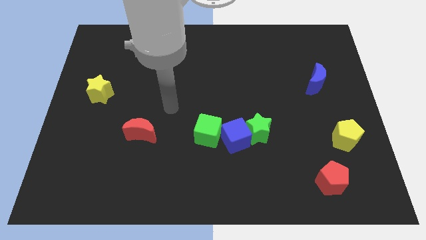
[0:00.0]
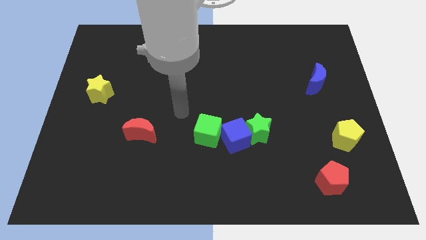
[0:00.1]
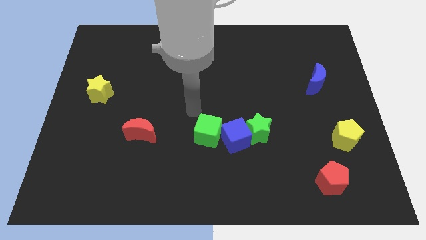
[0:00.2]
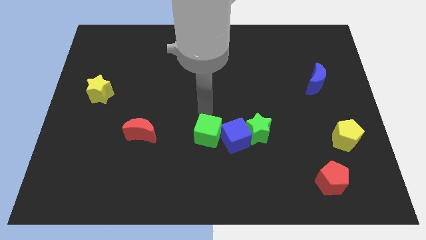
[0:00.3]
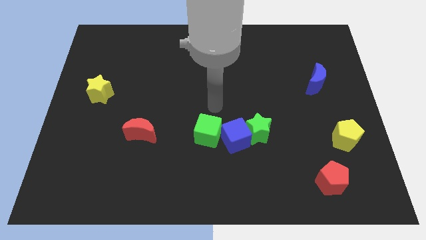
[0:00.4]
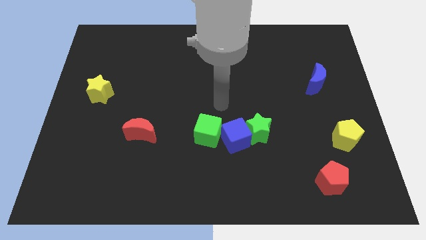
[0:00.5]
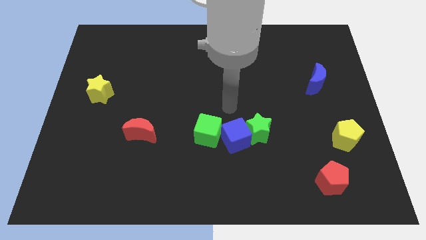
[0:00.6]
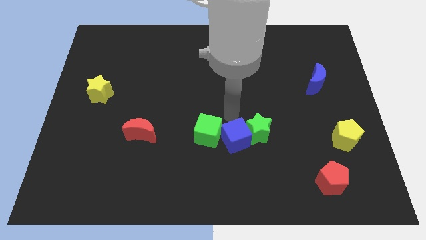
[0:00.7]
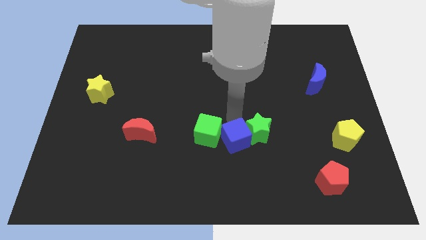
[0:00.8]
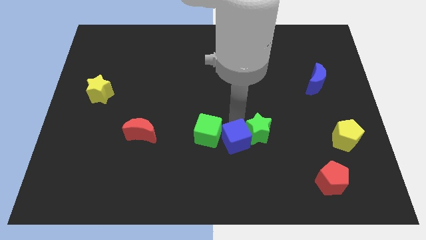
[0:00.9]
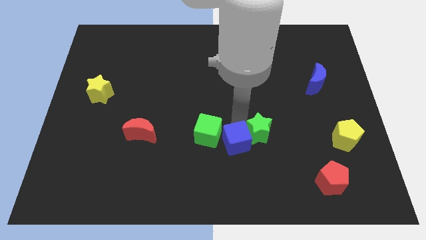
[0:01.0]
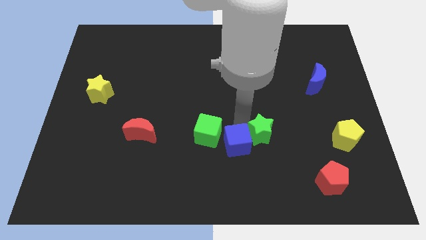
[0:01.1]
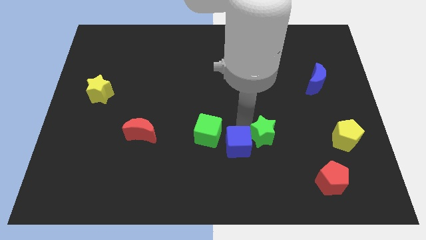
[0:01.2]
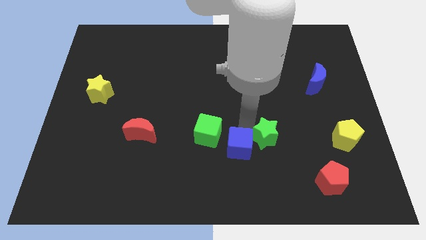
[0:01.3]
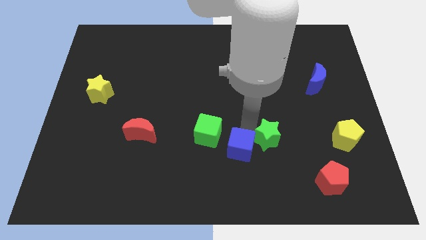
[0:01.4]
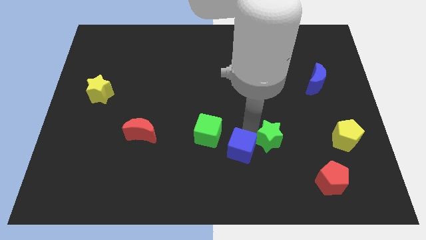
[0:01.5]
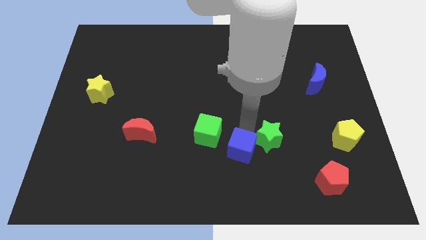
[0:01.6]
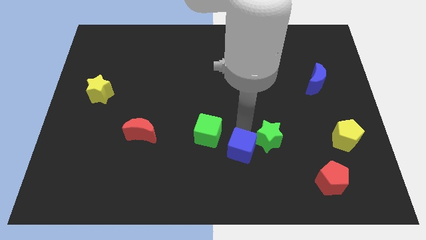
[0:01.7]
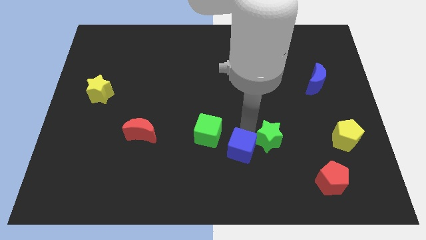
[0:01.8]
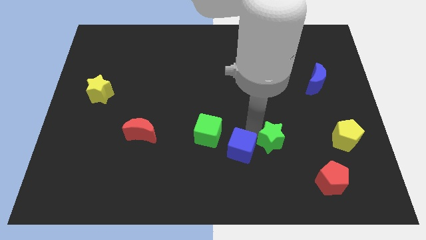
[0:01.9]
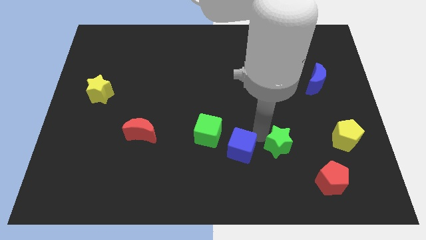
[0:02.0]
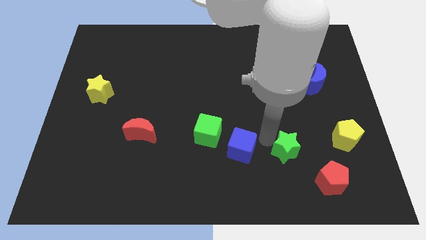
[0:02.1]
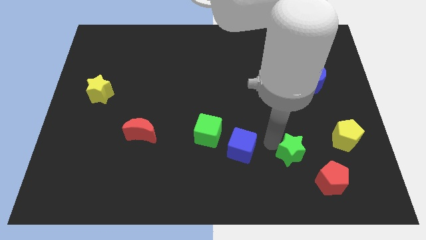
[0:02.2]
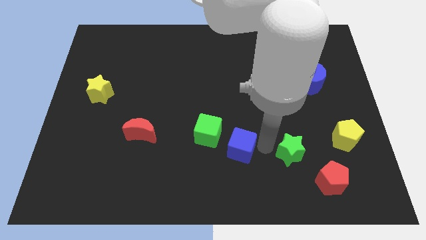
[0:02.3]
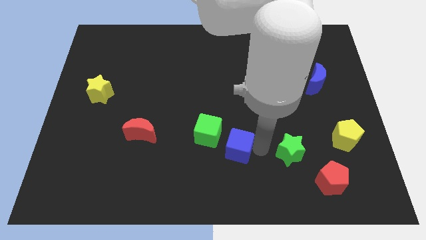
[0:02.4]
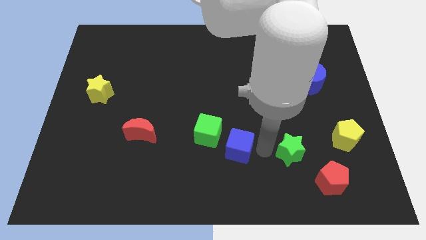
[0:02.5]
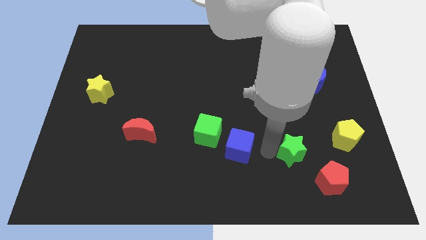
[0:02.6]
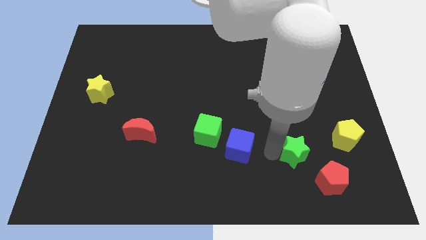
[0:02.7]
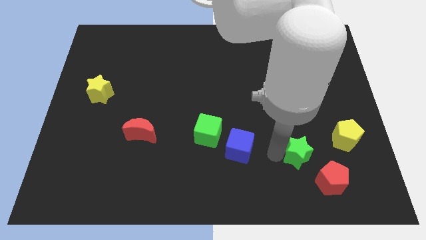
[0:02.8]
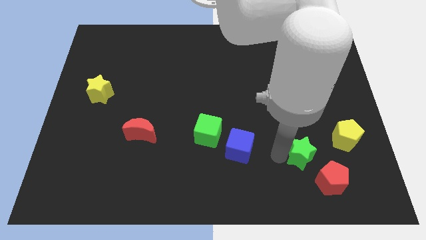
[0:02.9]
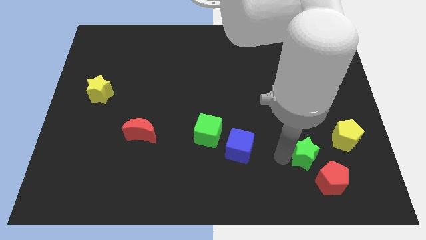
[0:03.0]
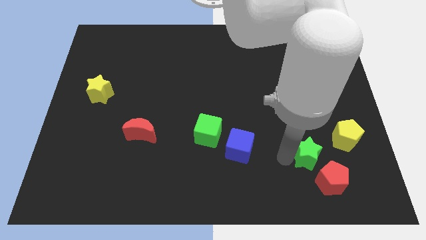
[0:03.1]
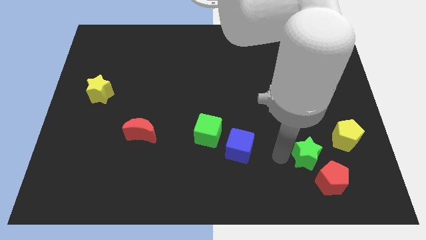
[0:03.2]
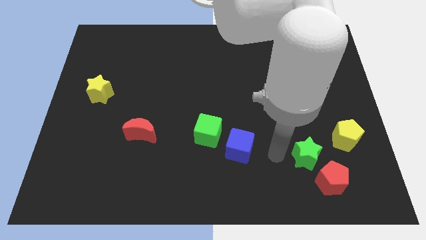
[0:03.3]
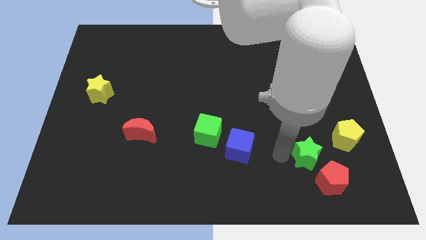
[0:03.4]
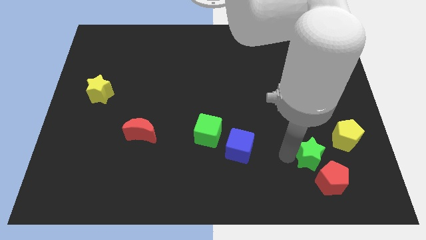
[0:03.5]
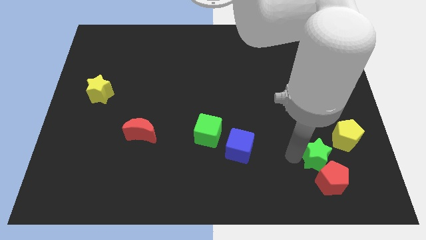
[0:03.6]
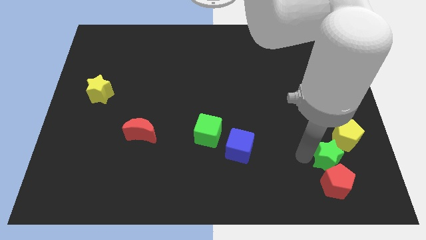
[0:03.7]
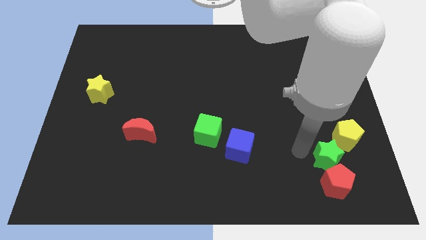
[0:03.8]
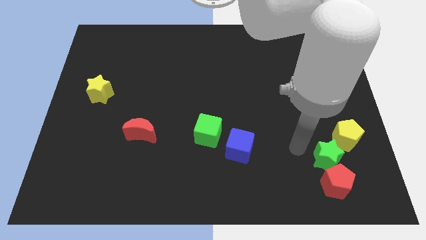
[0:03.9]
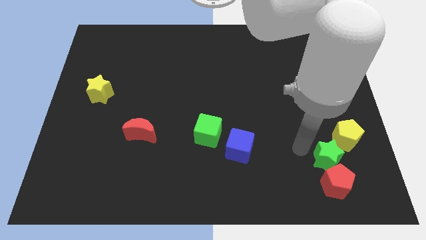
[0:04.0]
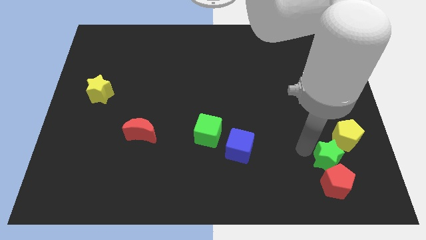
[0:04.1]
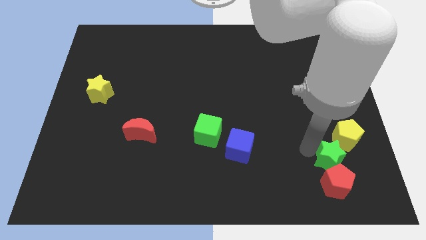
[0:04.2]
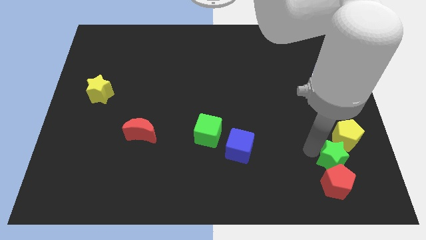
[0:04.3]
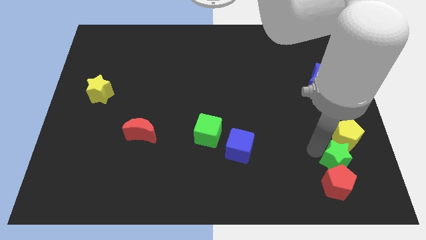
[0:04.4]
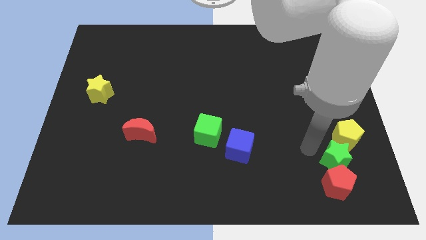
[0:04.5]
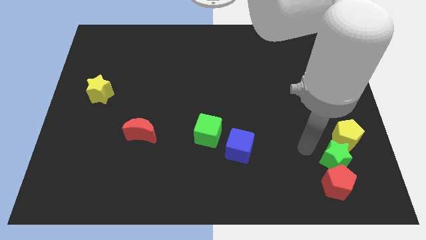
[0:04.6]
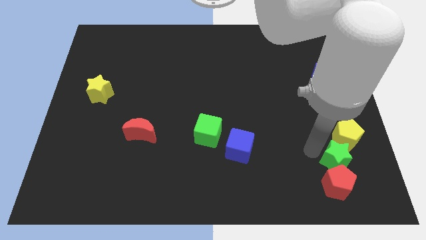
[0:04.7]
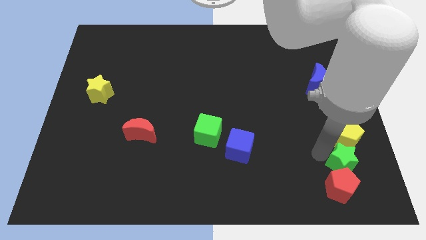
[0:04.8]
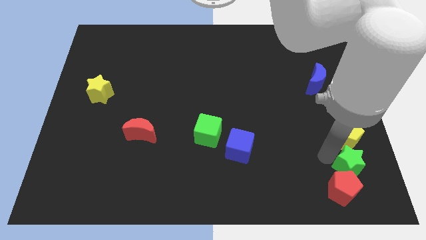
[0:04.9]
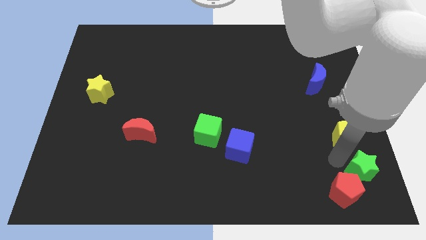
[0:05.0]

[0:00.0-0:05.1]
slide the green star to the bottom right

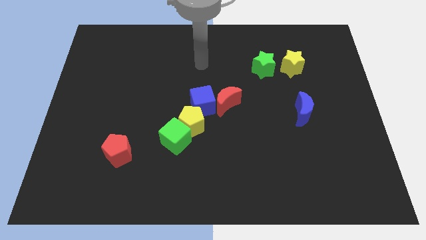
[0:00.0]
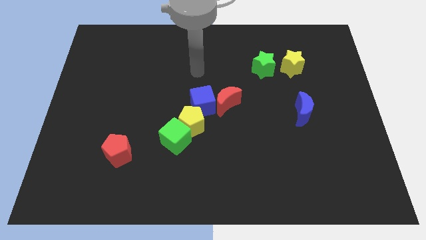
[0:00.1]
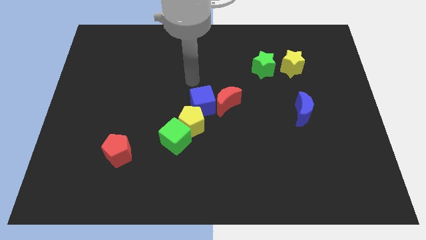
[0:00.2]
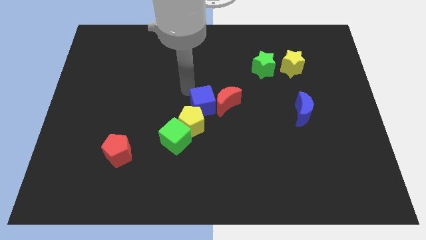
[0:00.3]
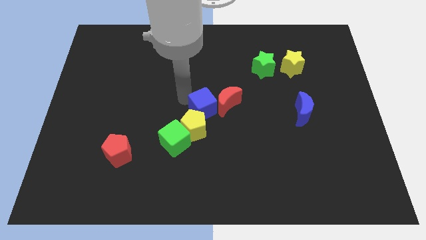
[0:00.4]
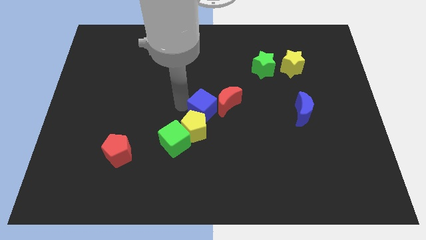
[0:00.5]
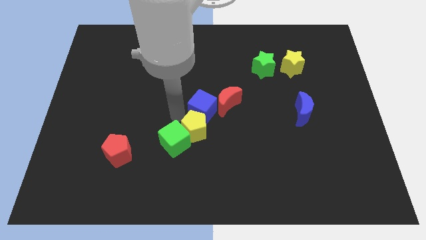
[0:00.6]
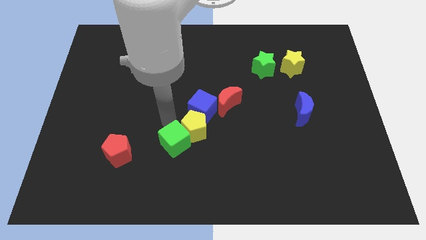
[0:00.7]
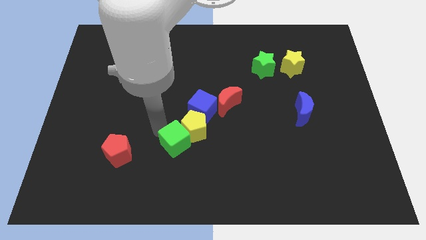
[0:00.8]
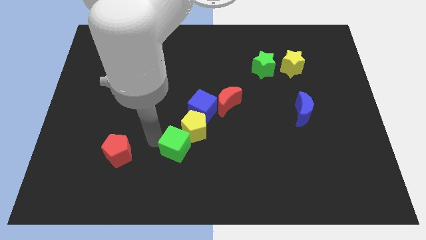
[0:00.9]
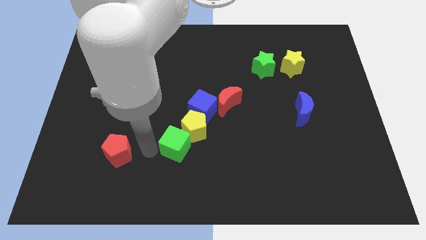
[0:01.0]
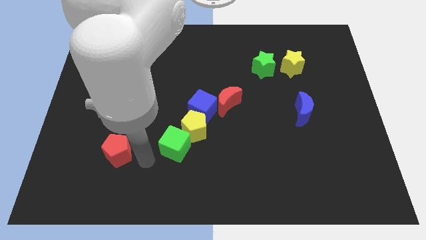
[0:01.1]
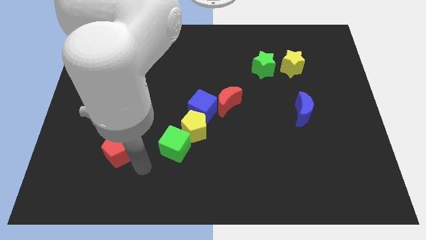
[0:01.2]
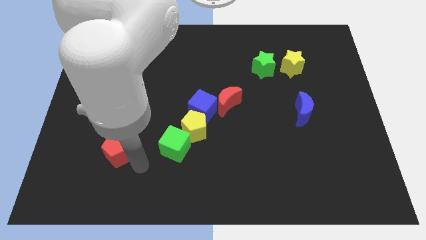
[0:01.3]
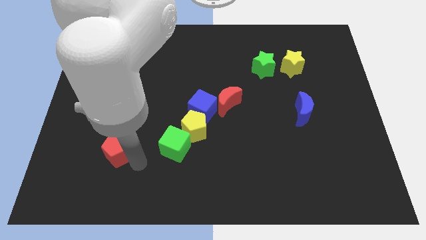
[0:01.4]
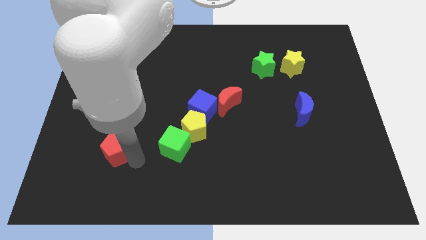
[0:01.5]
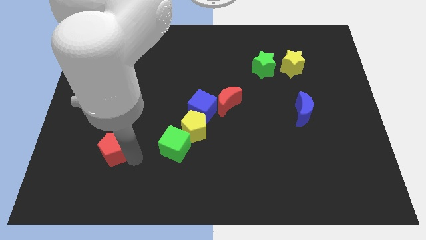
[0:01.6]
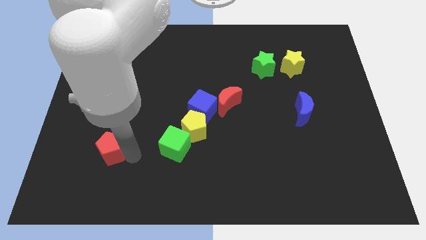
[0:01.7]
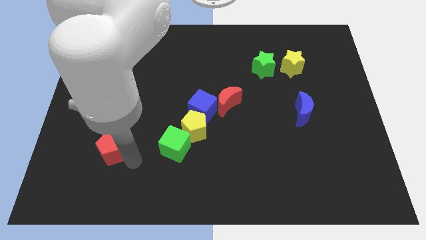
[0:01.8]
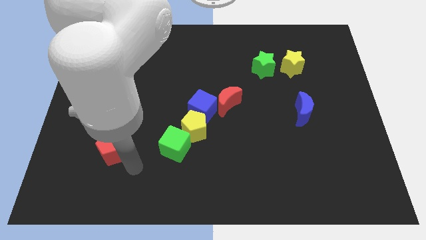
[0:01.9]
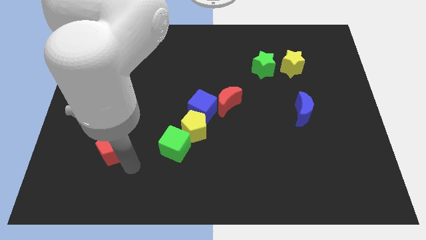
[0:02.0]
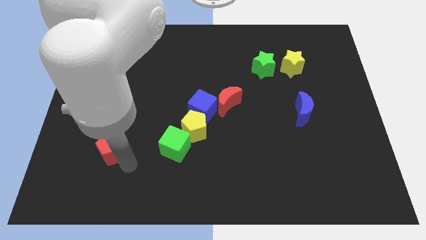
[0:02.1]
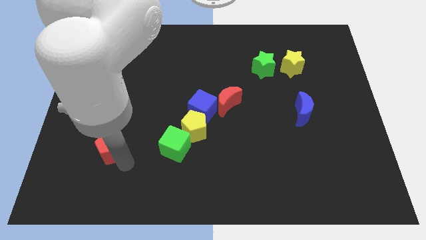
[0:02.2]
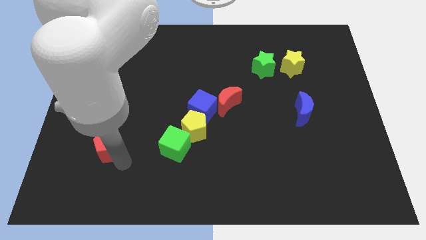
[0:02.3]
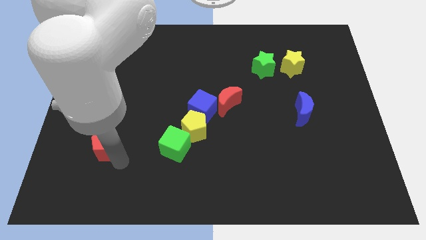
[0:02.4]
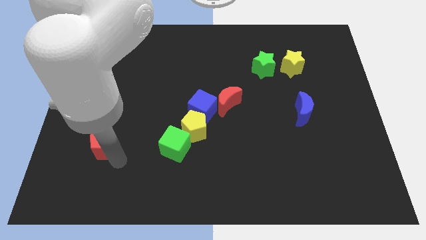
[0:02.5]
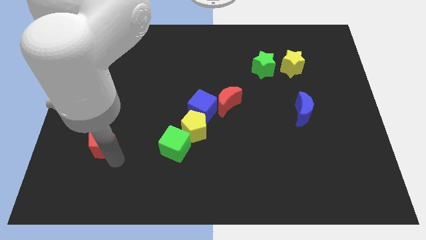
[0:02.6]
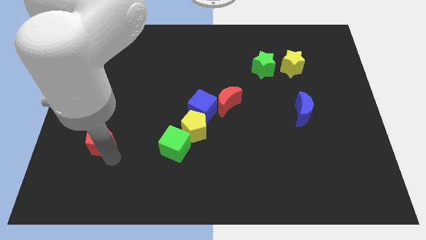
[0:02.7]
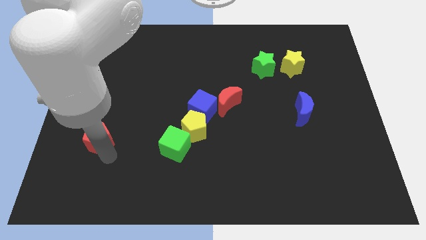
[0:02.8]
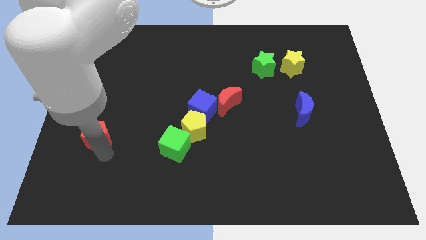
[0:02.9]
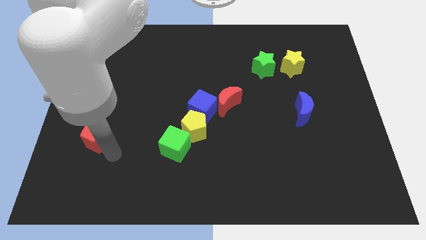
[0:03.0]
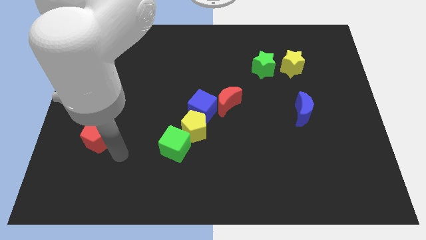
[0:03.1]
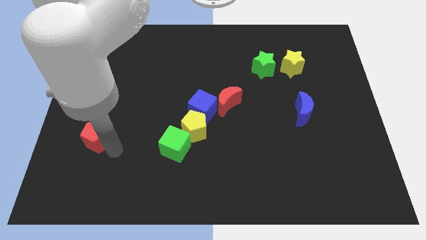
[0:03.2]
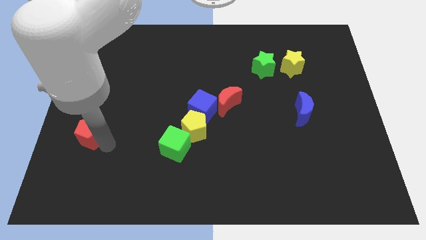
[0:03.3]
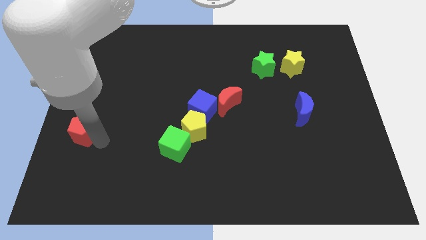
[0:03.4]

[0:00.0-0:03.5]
move the red pentagon to the left side
